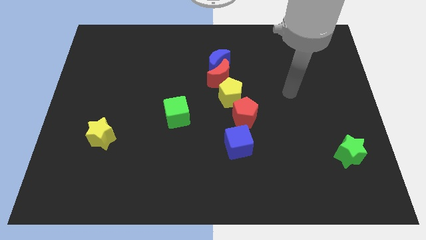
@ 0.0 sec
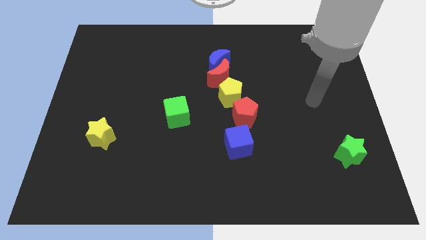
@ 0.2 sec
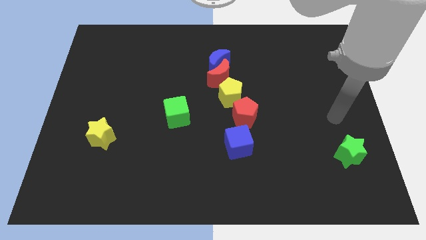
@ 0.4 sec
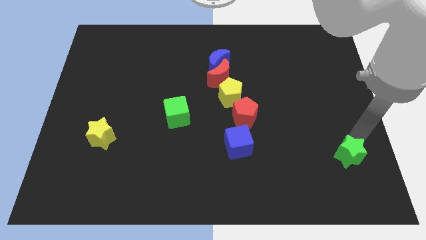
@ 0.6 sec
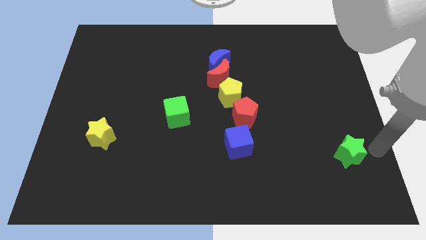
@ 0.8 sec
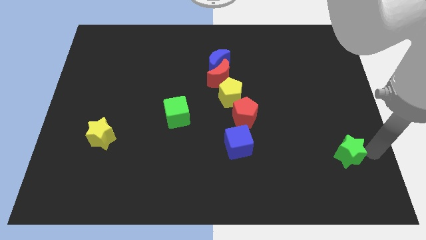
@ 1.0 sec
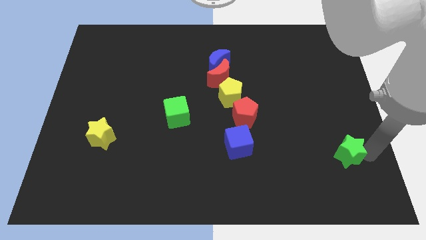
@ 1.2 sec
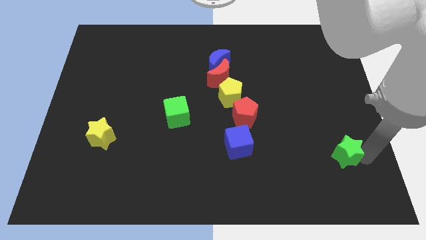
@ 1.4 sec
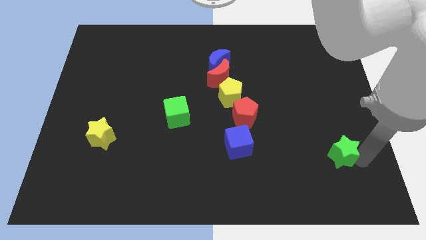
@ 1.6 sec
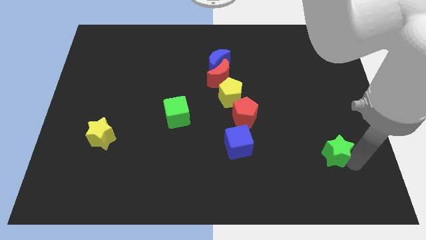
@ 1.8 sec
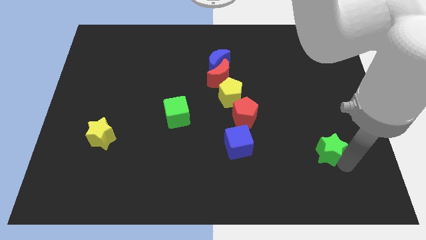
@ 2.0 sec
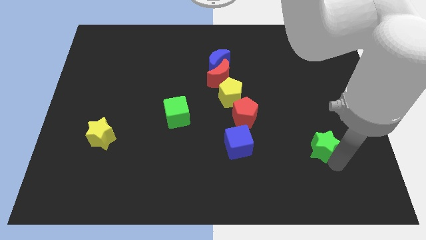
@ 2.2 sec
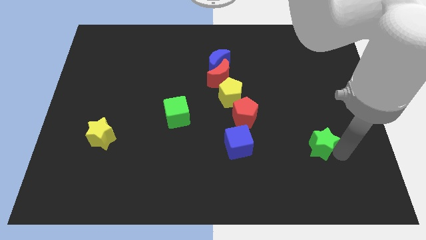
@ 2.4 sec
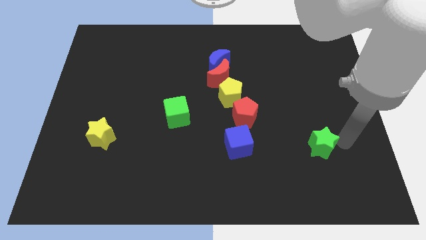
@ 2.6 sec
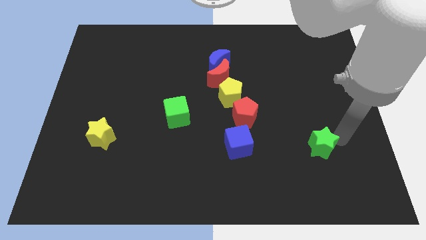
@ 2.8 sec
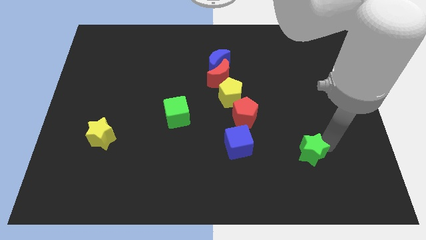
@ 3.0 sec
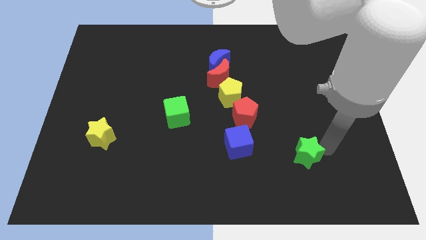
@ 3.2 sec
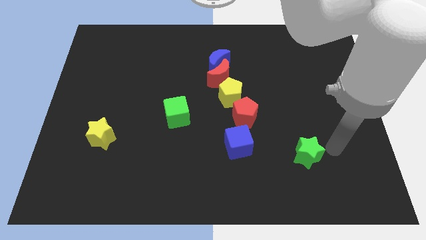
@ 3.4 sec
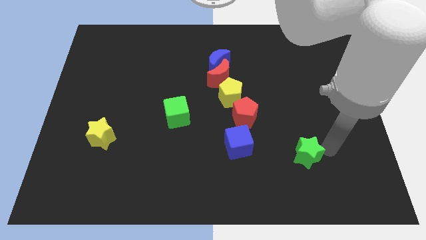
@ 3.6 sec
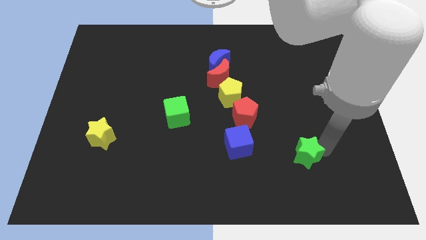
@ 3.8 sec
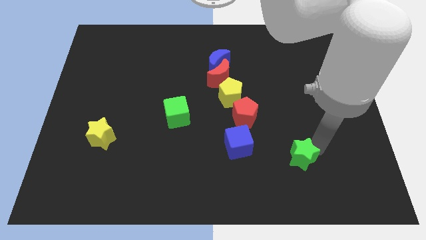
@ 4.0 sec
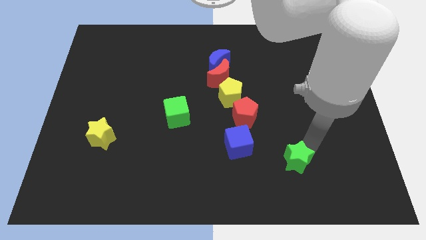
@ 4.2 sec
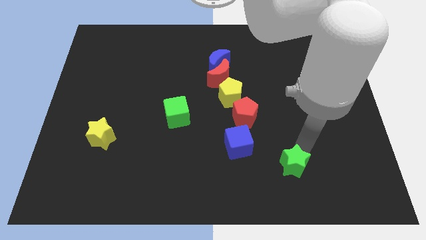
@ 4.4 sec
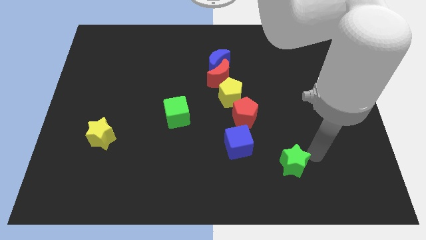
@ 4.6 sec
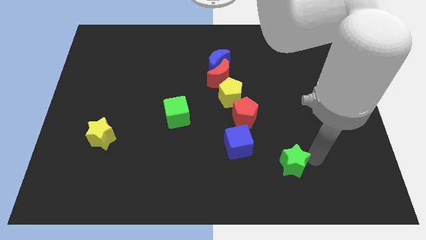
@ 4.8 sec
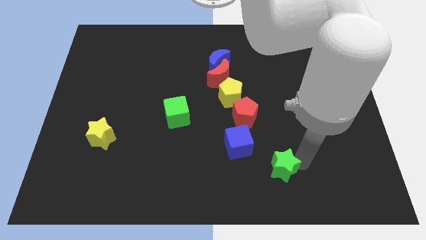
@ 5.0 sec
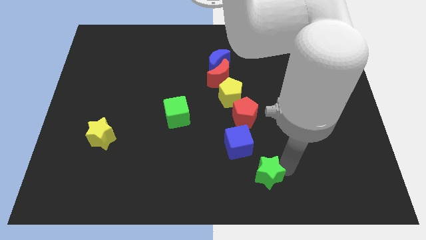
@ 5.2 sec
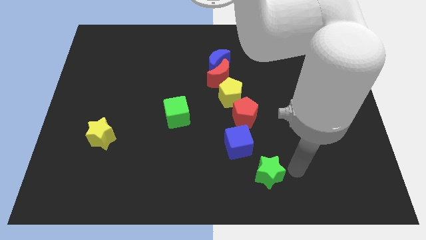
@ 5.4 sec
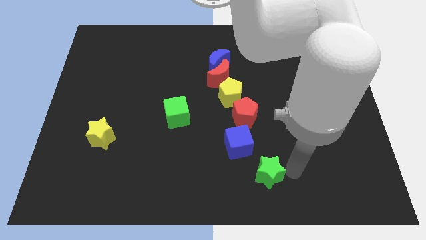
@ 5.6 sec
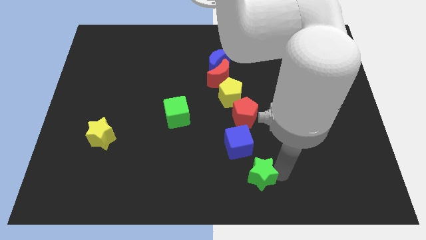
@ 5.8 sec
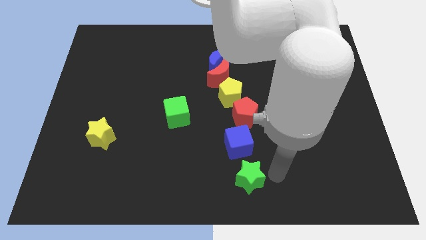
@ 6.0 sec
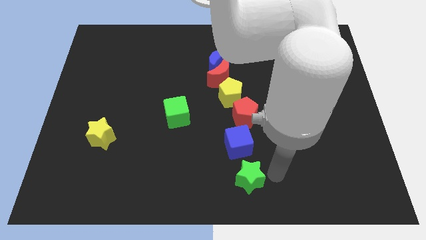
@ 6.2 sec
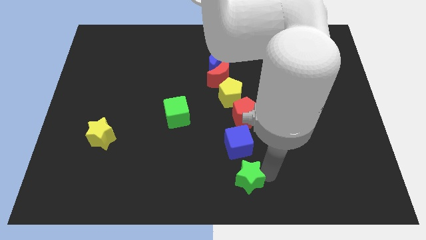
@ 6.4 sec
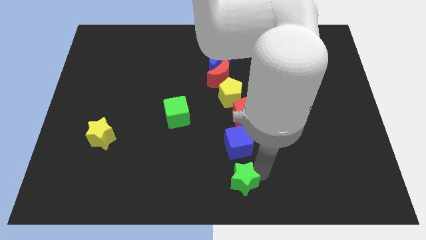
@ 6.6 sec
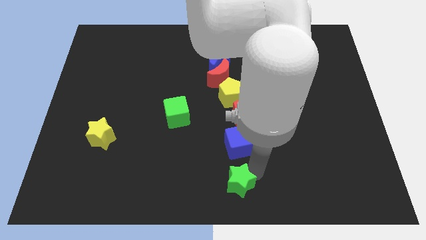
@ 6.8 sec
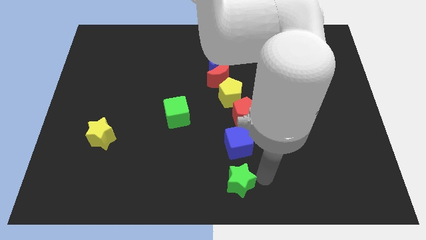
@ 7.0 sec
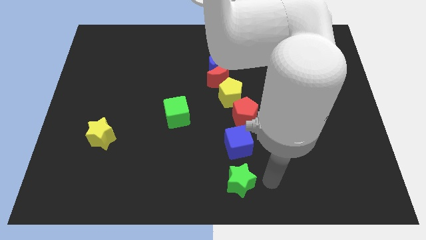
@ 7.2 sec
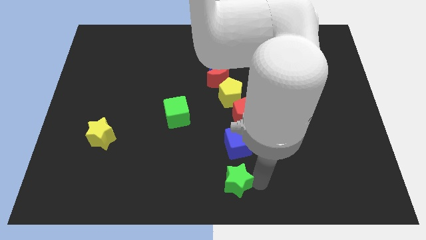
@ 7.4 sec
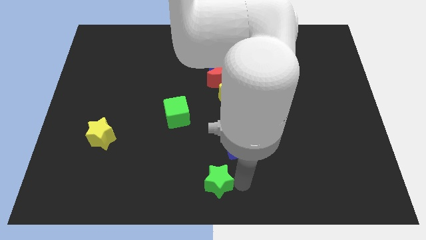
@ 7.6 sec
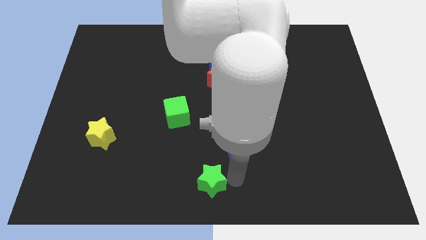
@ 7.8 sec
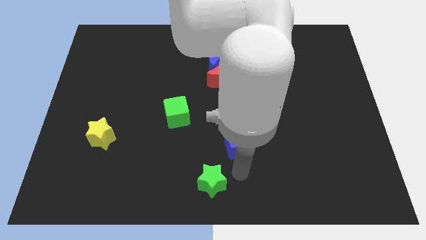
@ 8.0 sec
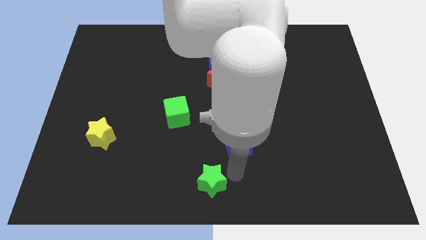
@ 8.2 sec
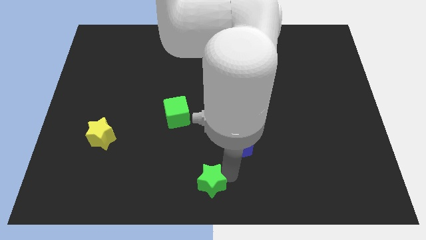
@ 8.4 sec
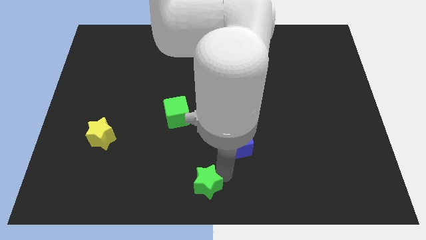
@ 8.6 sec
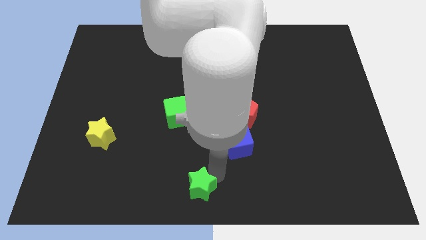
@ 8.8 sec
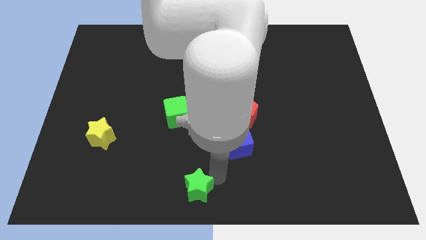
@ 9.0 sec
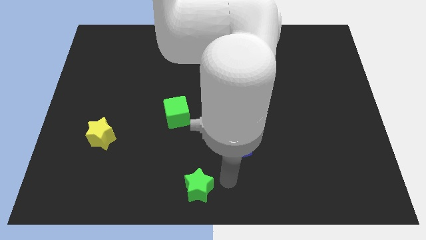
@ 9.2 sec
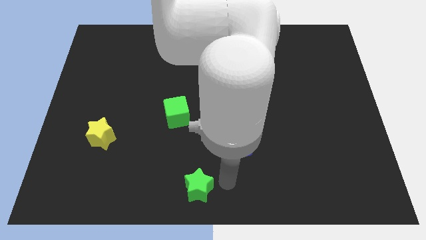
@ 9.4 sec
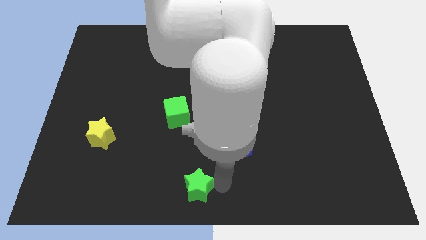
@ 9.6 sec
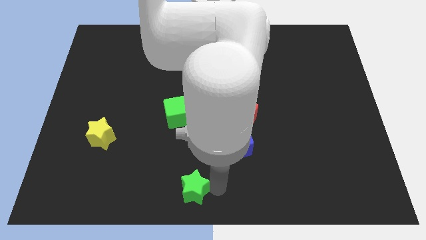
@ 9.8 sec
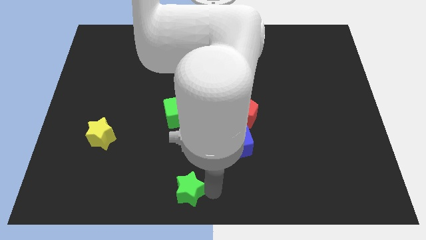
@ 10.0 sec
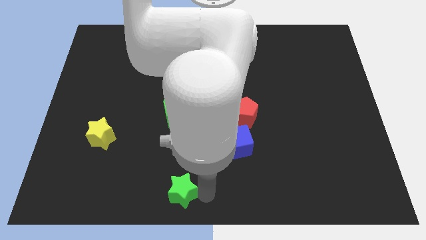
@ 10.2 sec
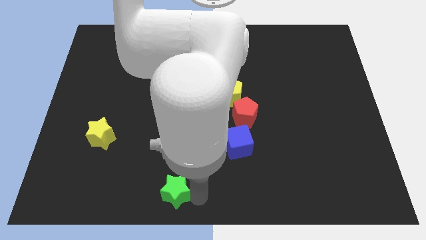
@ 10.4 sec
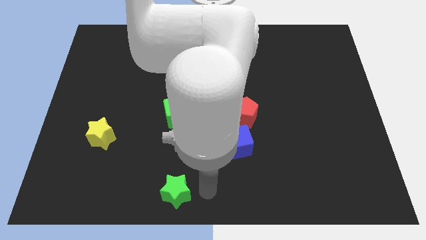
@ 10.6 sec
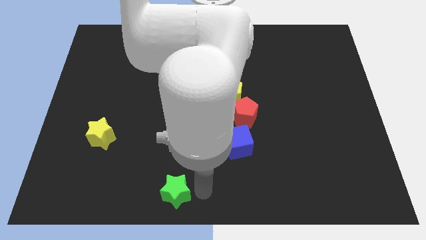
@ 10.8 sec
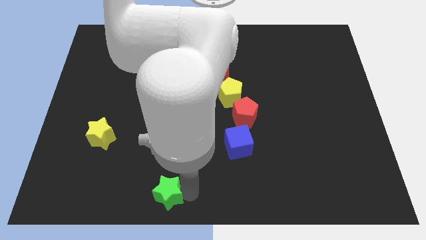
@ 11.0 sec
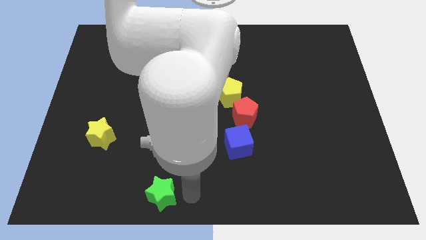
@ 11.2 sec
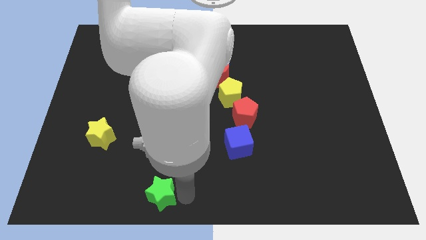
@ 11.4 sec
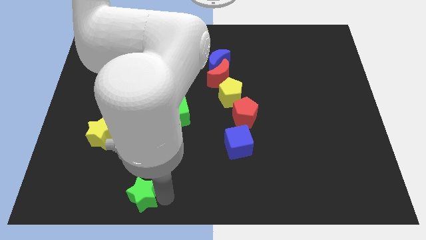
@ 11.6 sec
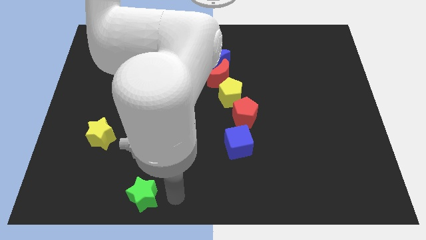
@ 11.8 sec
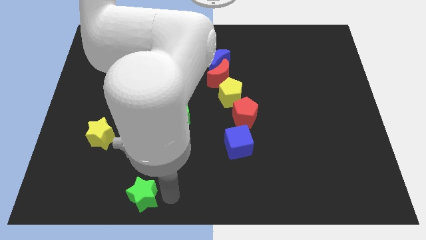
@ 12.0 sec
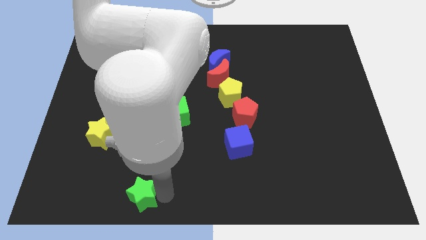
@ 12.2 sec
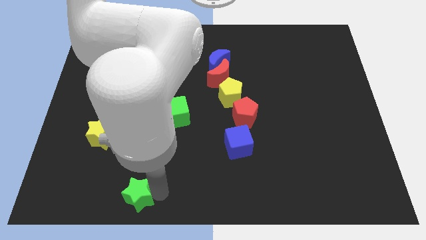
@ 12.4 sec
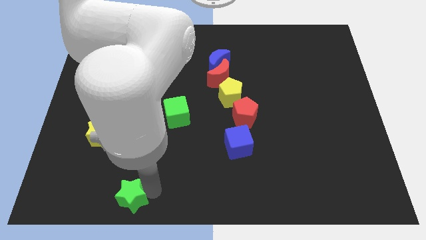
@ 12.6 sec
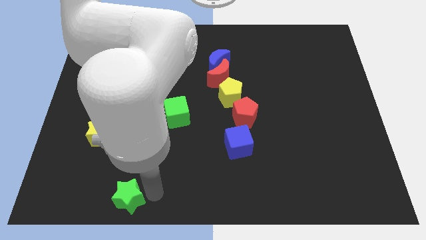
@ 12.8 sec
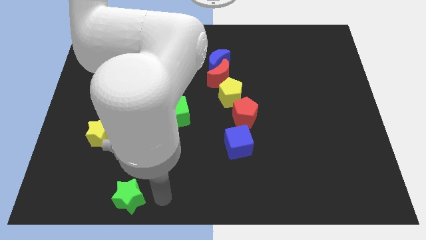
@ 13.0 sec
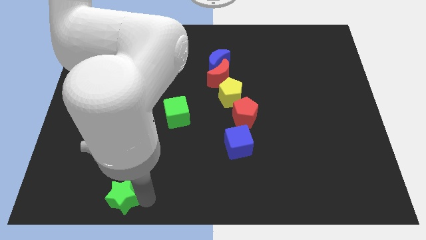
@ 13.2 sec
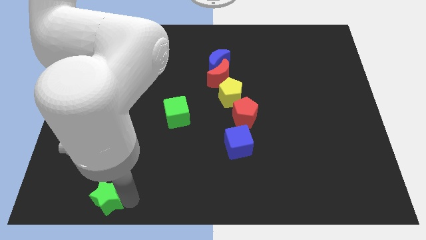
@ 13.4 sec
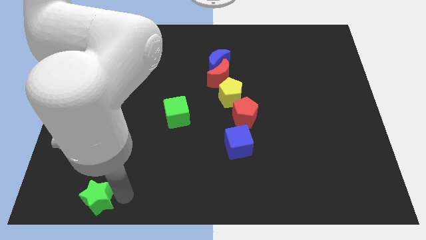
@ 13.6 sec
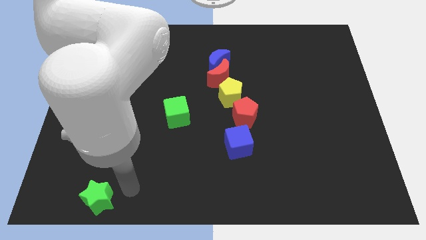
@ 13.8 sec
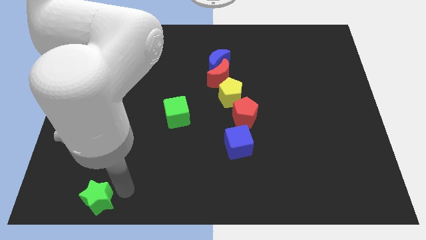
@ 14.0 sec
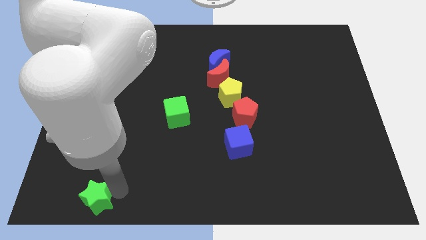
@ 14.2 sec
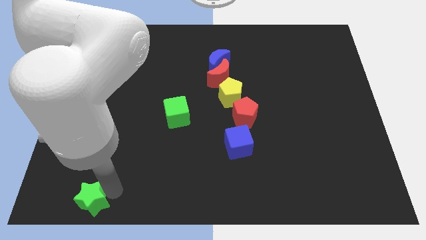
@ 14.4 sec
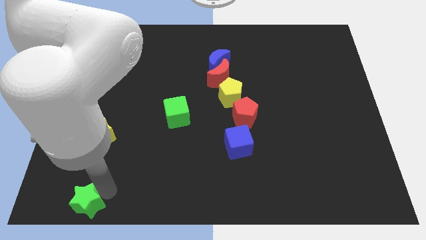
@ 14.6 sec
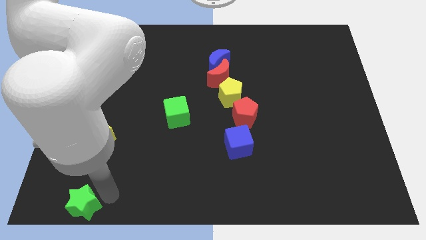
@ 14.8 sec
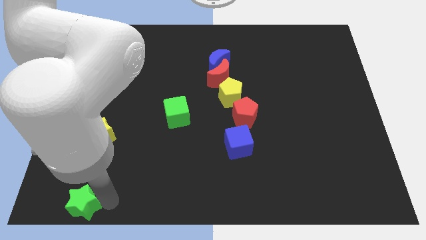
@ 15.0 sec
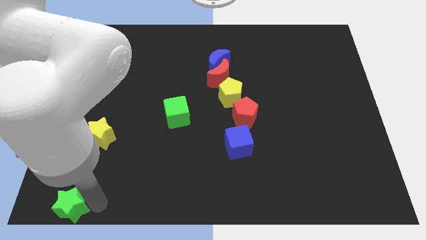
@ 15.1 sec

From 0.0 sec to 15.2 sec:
push the green star to the bottom left of the board
